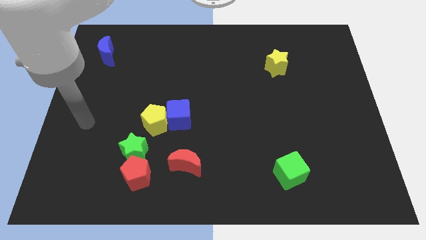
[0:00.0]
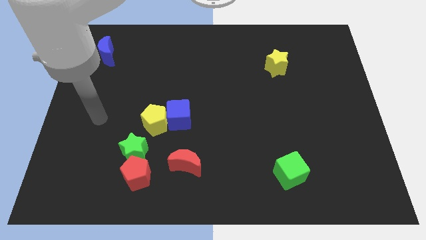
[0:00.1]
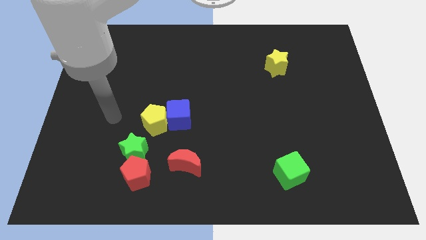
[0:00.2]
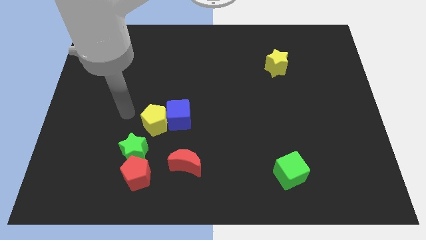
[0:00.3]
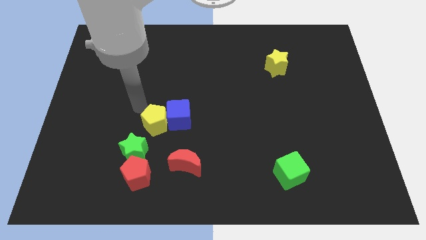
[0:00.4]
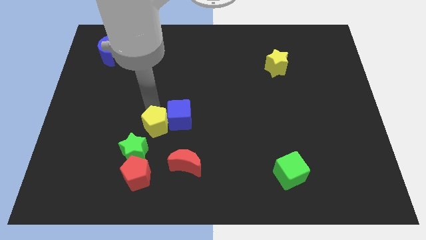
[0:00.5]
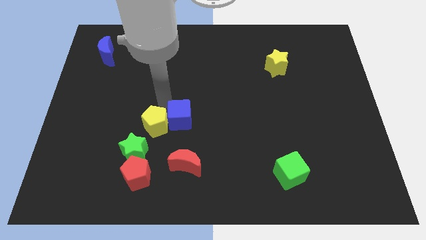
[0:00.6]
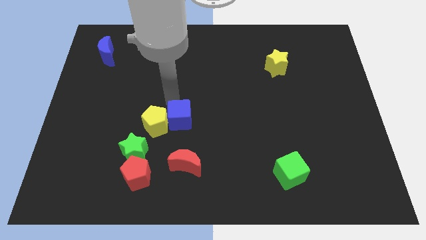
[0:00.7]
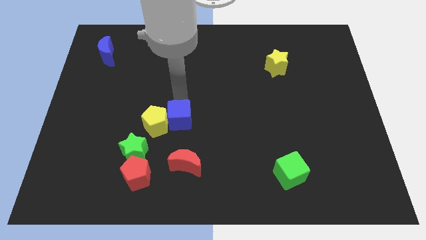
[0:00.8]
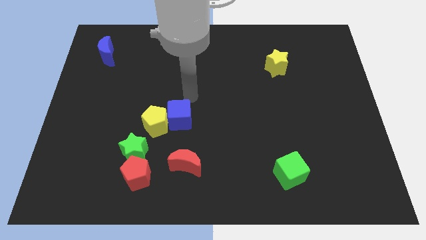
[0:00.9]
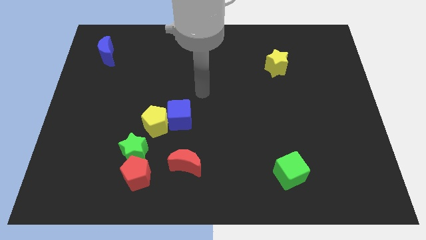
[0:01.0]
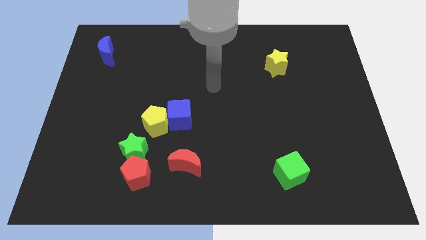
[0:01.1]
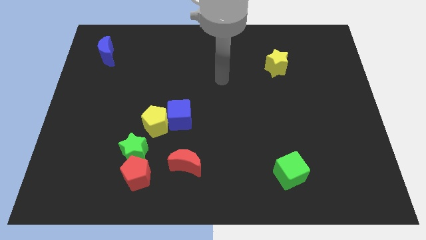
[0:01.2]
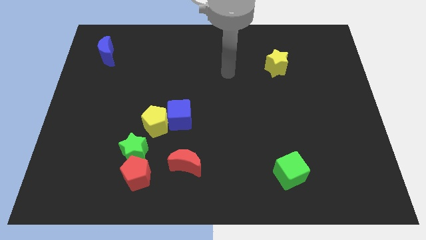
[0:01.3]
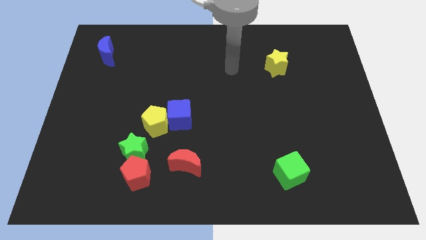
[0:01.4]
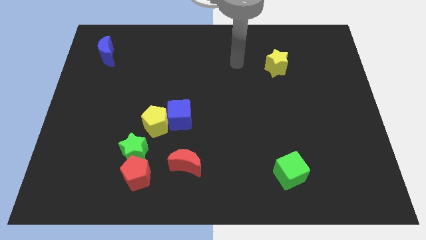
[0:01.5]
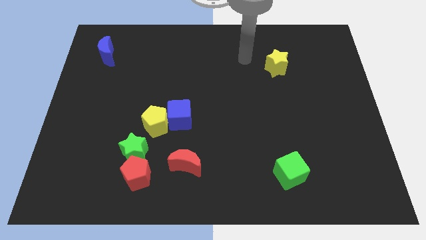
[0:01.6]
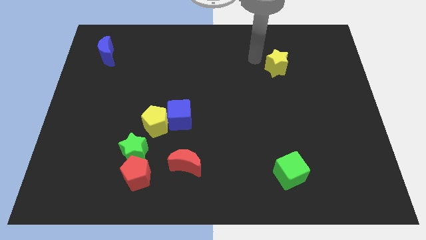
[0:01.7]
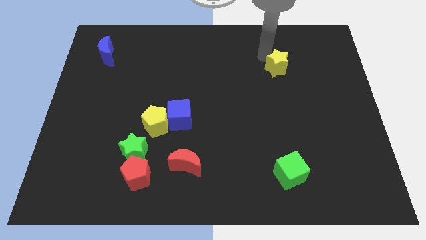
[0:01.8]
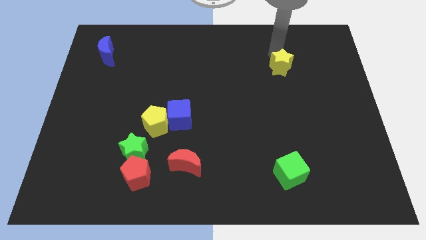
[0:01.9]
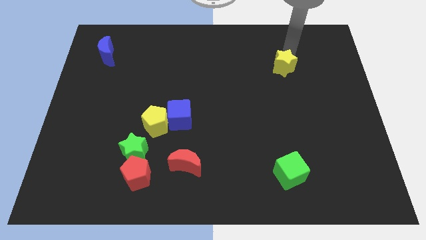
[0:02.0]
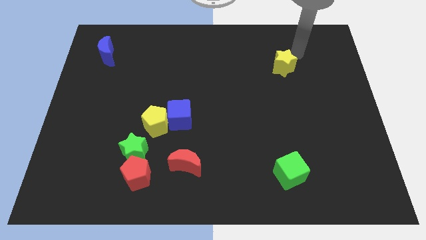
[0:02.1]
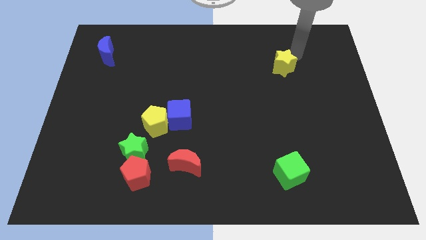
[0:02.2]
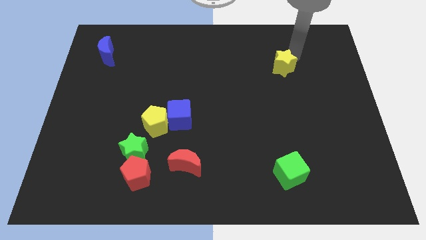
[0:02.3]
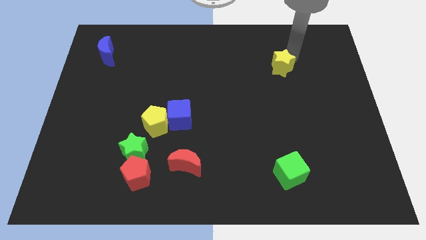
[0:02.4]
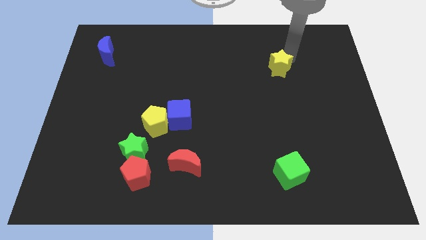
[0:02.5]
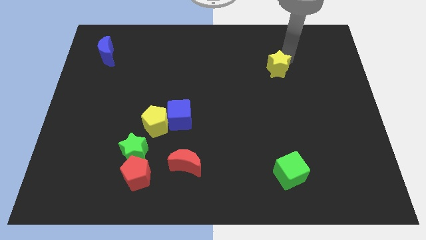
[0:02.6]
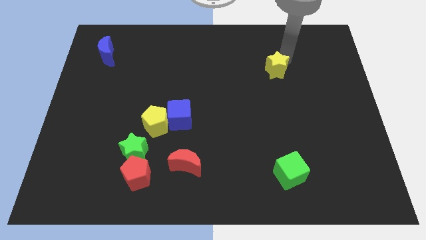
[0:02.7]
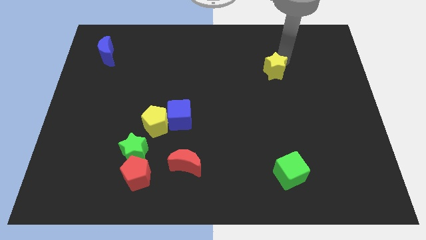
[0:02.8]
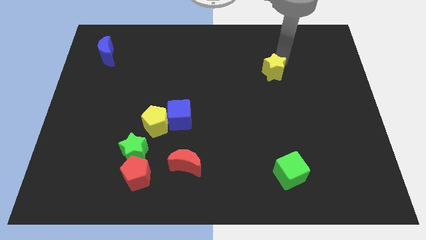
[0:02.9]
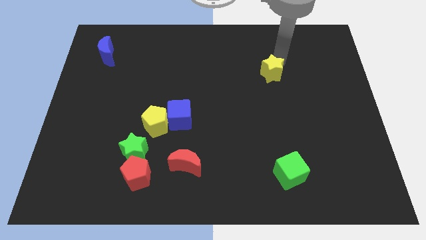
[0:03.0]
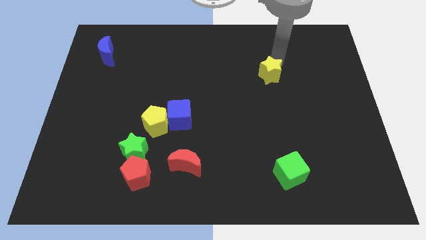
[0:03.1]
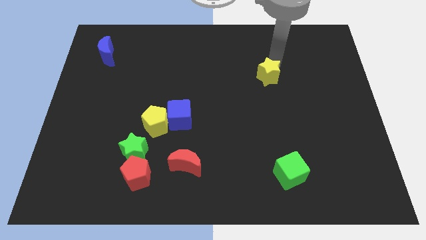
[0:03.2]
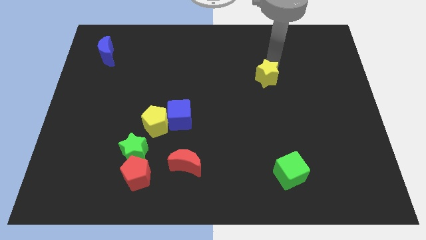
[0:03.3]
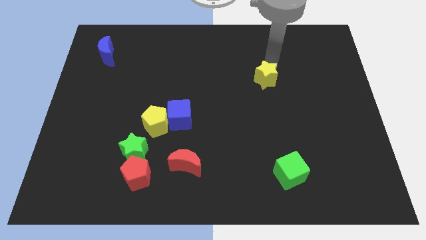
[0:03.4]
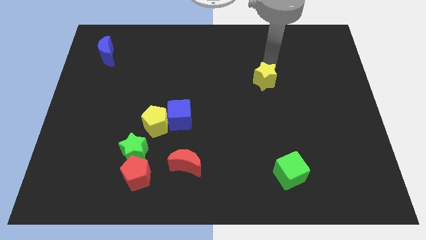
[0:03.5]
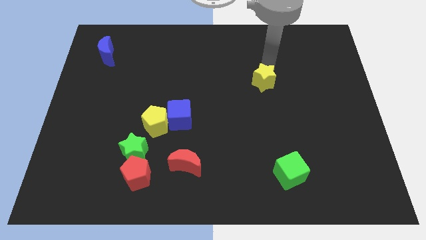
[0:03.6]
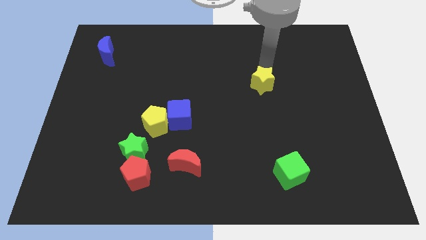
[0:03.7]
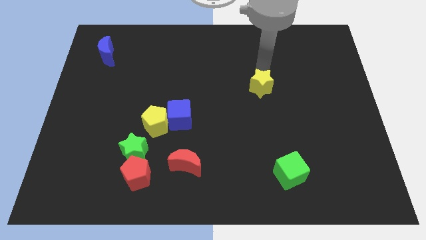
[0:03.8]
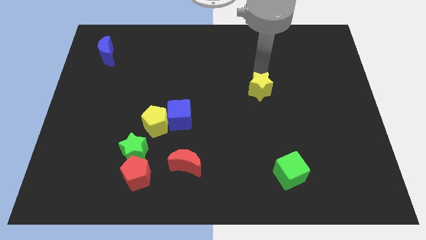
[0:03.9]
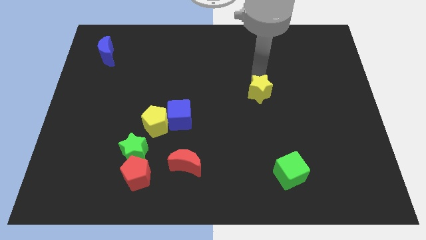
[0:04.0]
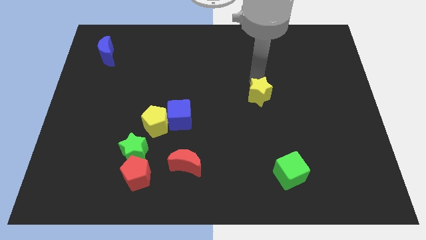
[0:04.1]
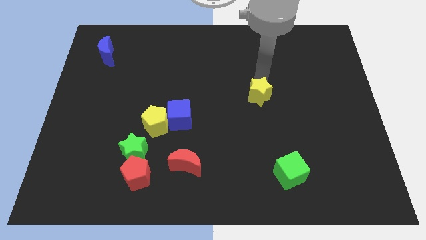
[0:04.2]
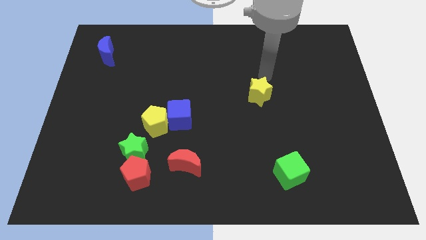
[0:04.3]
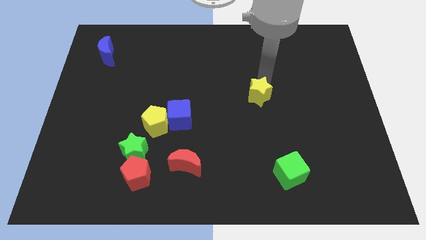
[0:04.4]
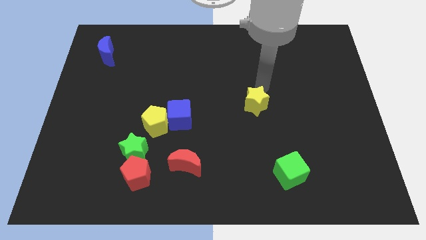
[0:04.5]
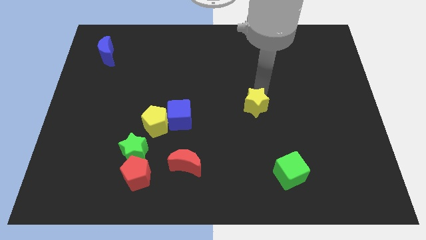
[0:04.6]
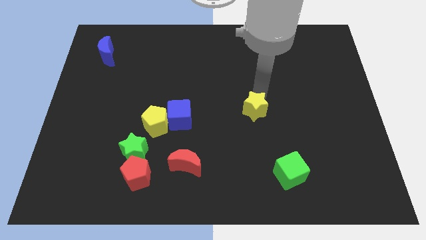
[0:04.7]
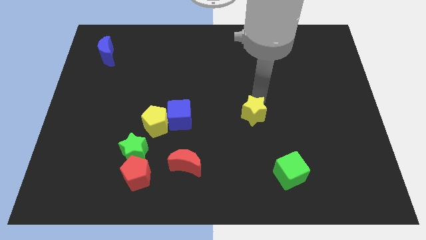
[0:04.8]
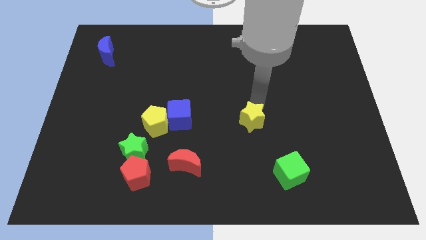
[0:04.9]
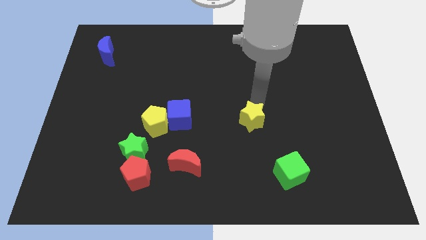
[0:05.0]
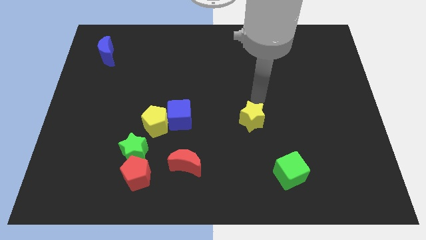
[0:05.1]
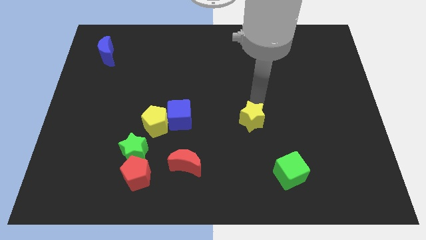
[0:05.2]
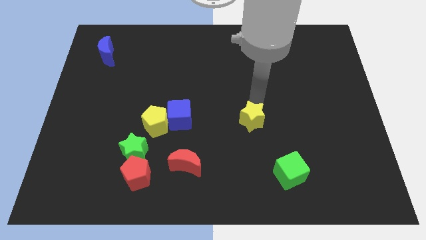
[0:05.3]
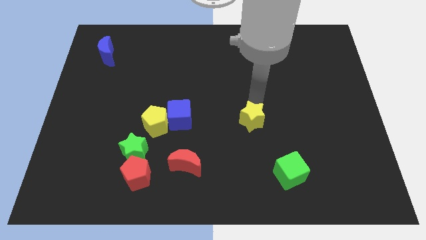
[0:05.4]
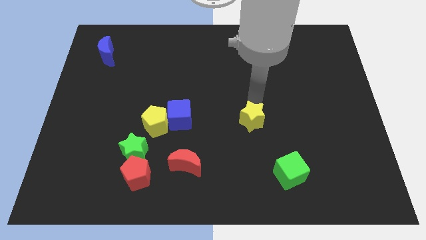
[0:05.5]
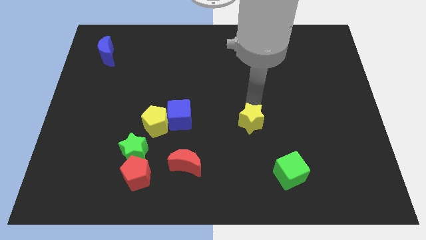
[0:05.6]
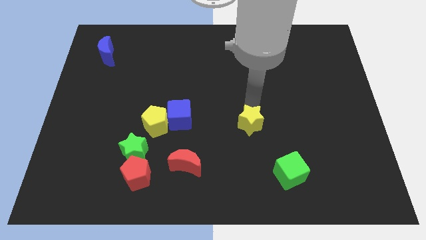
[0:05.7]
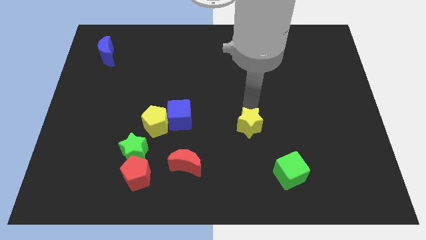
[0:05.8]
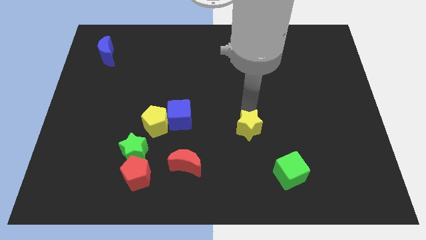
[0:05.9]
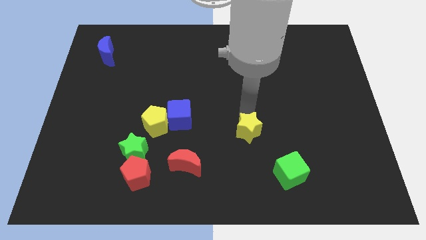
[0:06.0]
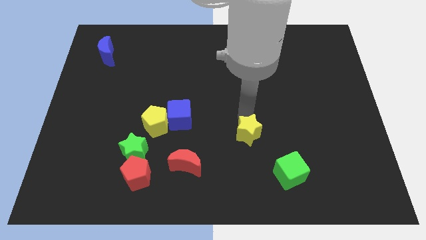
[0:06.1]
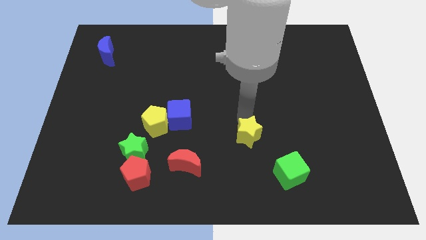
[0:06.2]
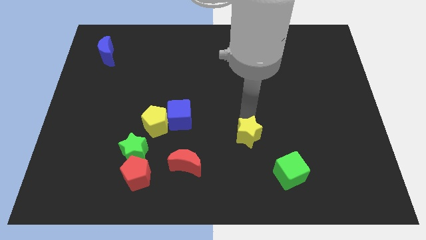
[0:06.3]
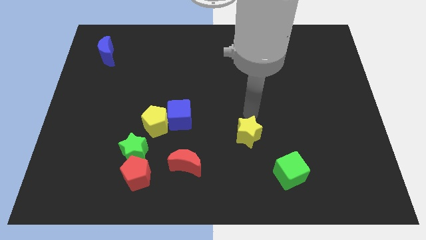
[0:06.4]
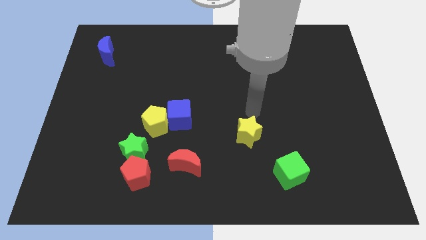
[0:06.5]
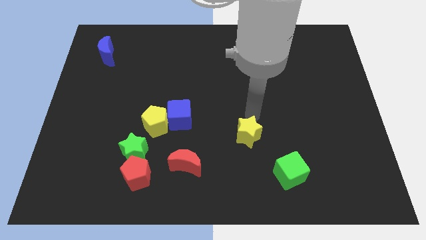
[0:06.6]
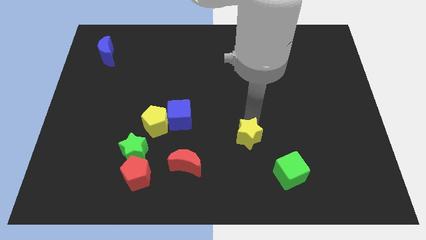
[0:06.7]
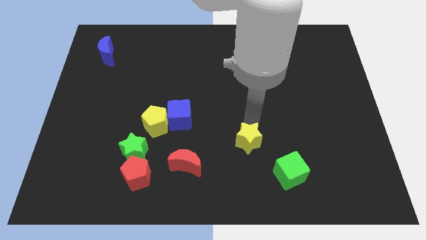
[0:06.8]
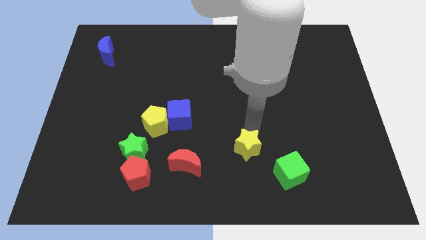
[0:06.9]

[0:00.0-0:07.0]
slide the yellow star just right of the red moon

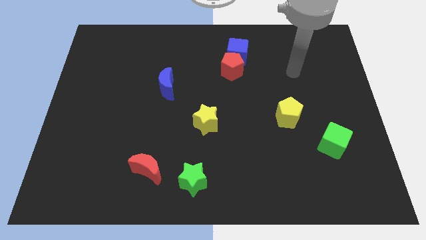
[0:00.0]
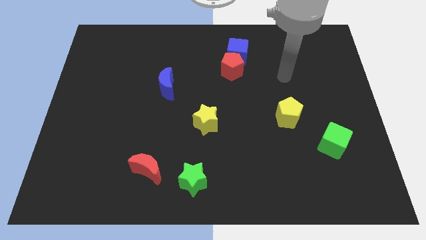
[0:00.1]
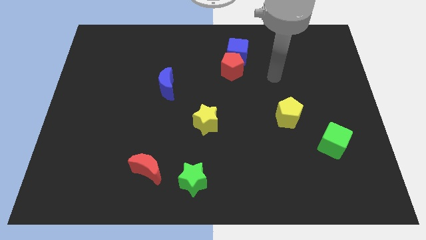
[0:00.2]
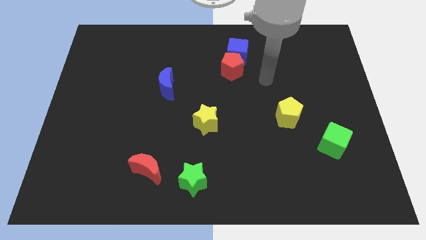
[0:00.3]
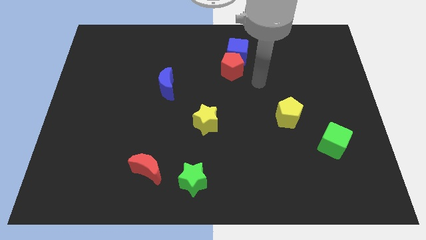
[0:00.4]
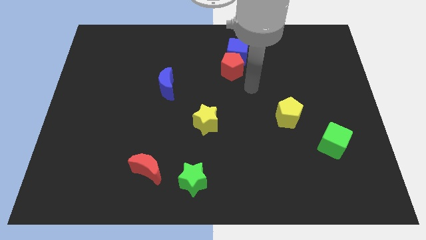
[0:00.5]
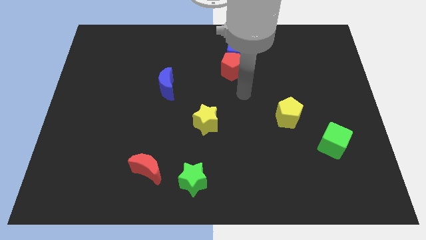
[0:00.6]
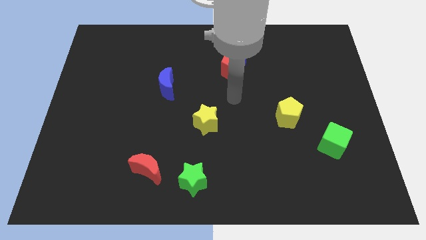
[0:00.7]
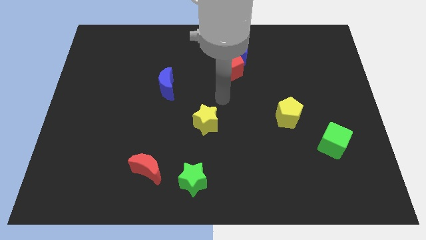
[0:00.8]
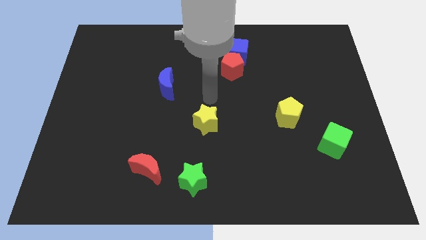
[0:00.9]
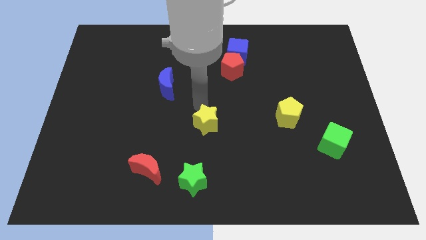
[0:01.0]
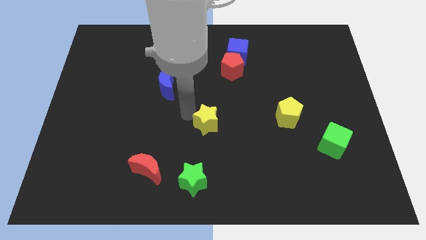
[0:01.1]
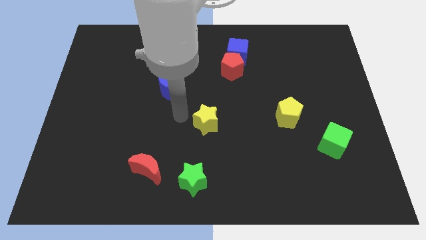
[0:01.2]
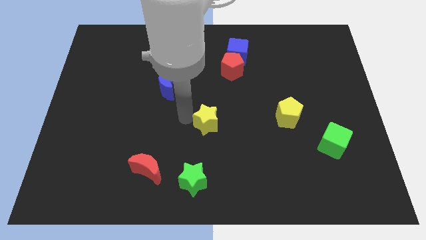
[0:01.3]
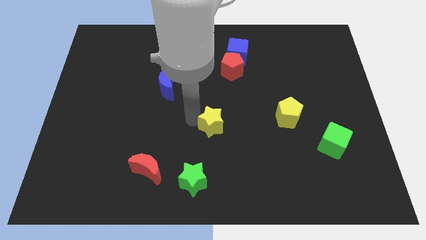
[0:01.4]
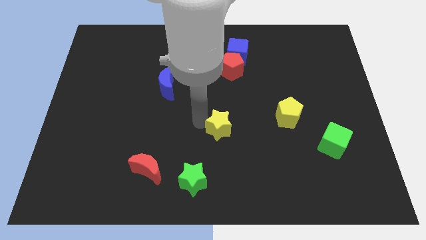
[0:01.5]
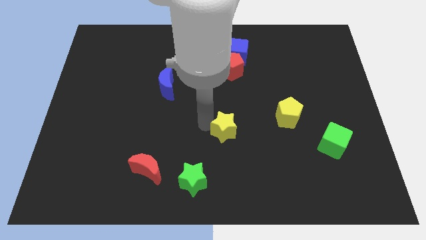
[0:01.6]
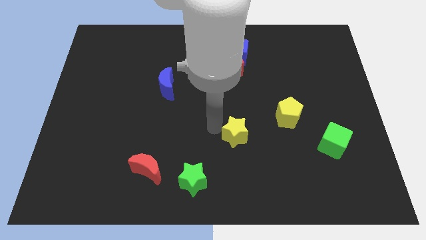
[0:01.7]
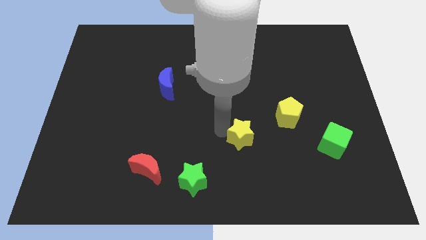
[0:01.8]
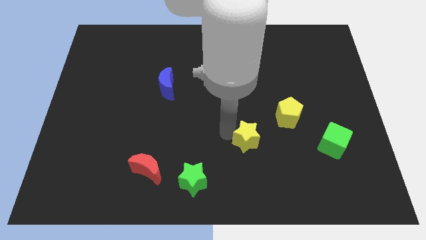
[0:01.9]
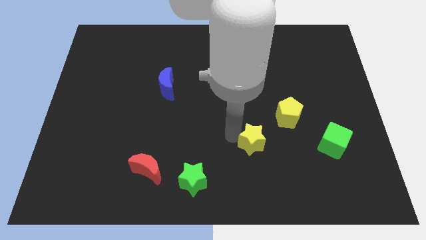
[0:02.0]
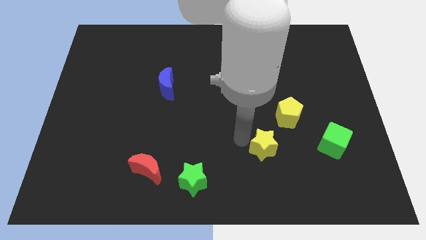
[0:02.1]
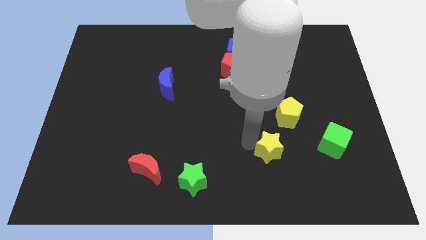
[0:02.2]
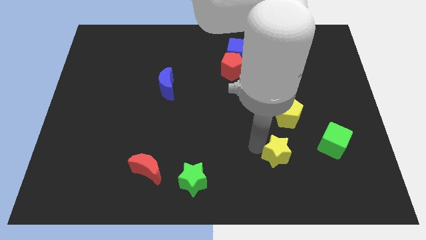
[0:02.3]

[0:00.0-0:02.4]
slide the yellow star below the yellow pentagon
